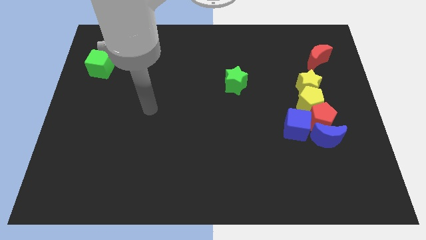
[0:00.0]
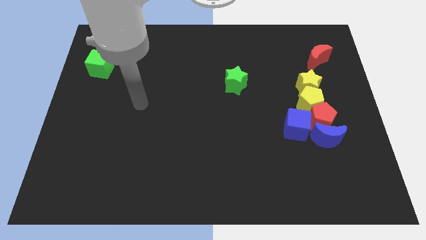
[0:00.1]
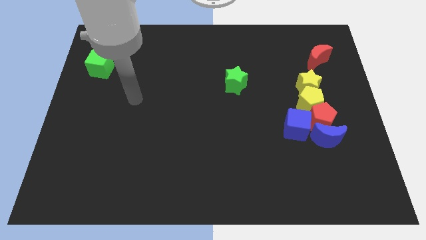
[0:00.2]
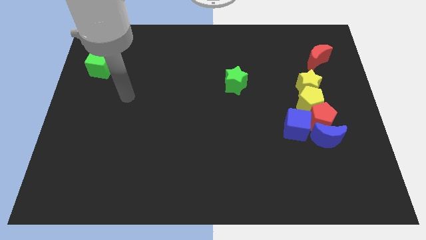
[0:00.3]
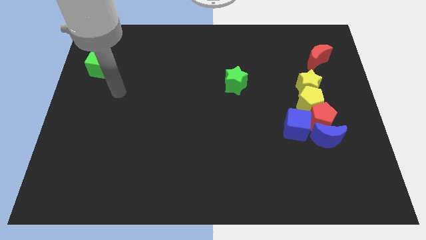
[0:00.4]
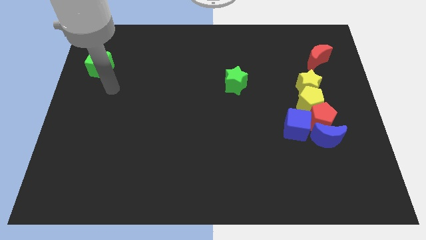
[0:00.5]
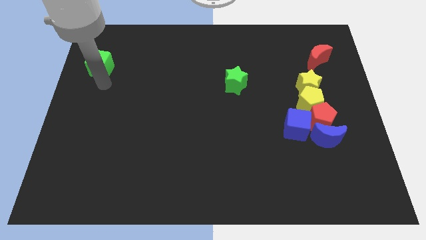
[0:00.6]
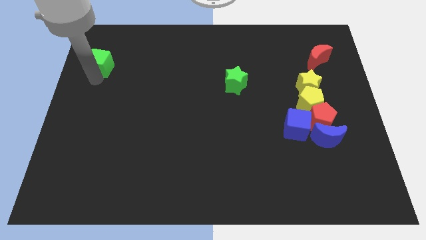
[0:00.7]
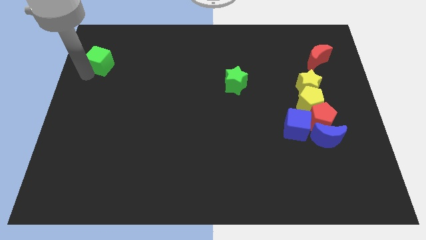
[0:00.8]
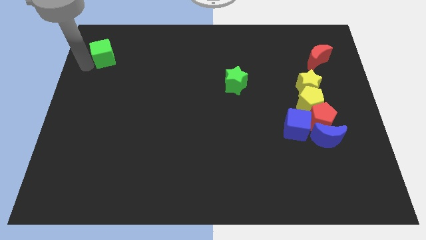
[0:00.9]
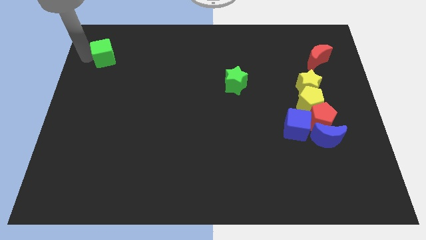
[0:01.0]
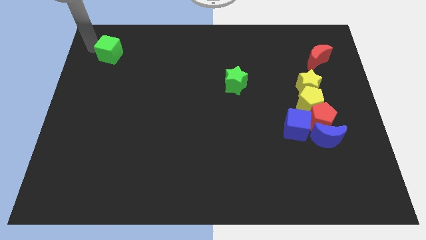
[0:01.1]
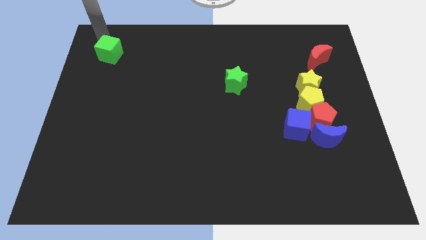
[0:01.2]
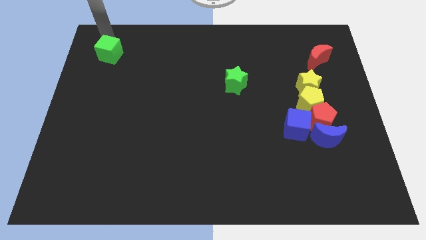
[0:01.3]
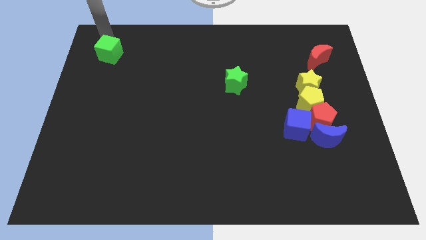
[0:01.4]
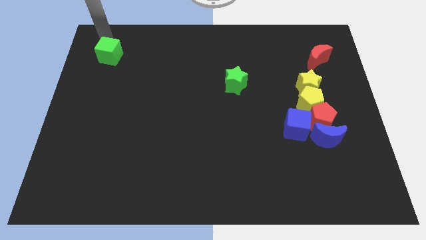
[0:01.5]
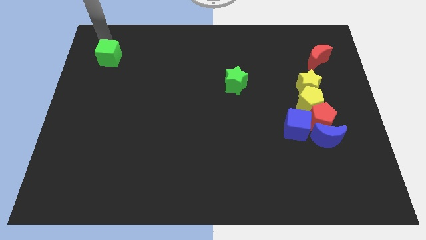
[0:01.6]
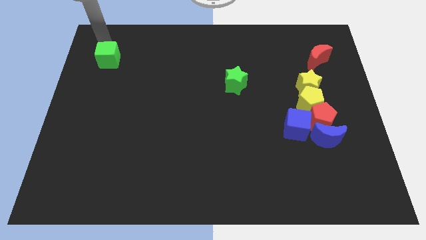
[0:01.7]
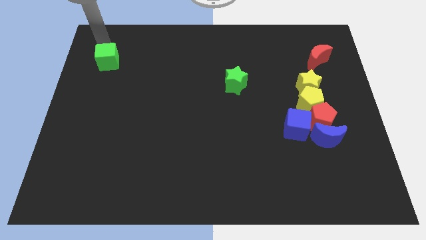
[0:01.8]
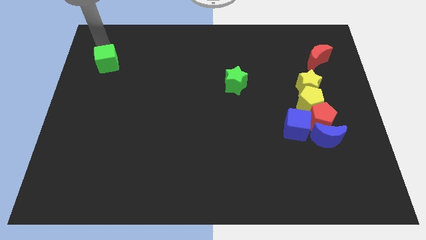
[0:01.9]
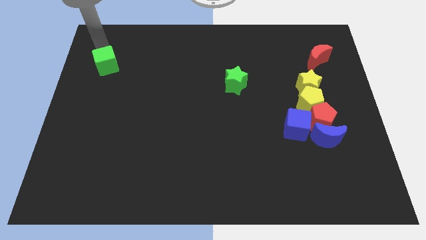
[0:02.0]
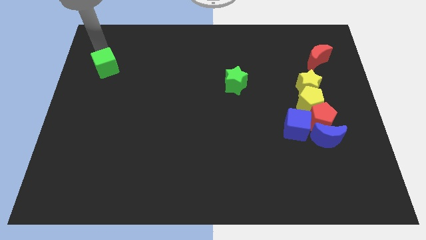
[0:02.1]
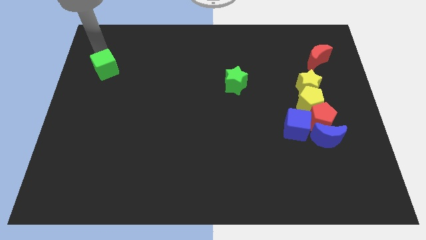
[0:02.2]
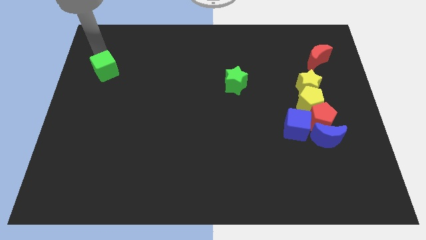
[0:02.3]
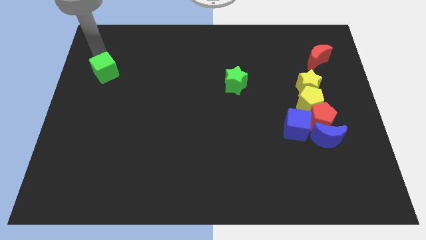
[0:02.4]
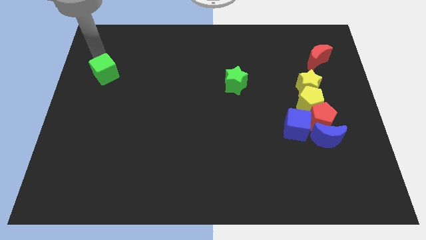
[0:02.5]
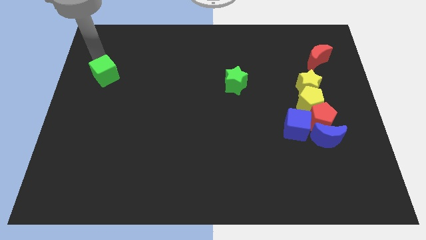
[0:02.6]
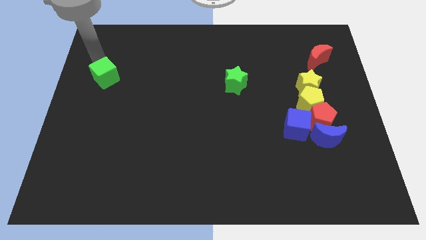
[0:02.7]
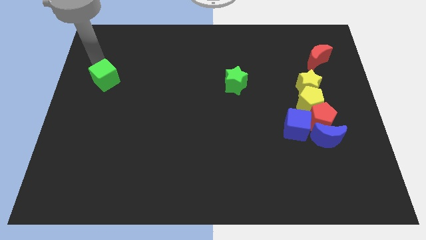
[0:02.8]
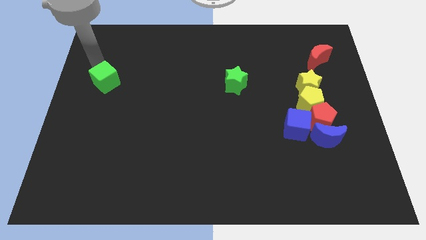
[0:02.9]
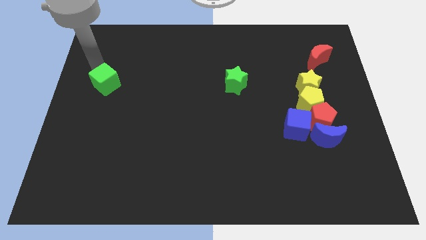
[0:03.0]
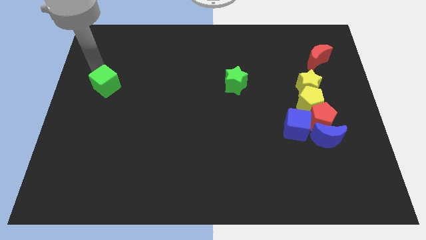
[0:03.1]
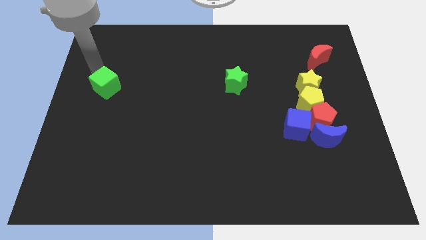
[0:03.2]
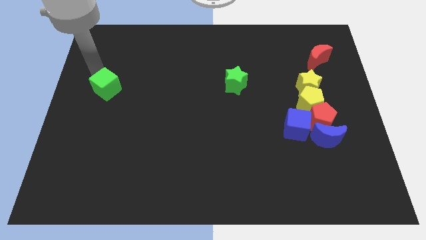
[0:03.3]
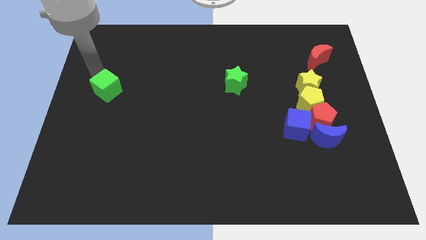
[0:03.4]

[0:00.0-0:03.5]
slide the green cube downwards and to the right diagonally a bit

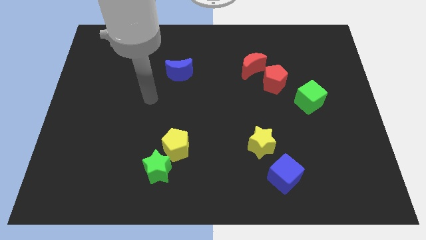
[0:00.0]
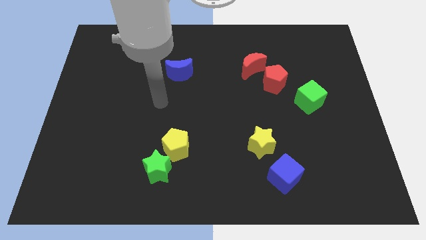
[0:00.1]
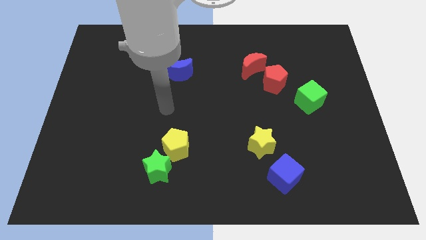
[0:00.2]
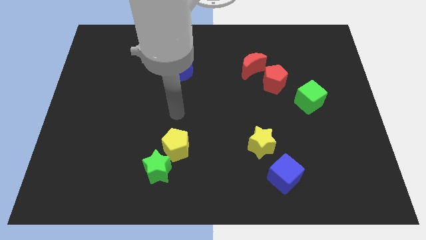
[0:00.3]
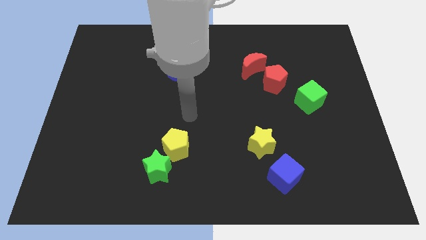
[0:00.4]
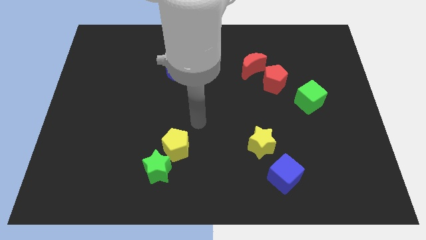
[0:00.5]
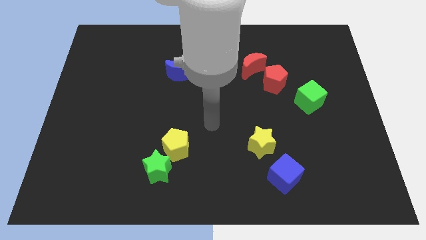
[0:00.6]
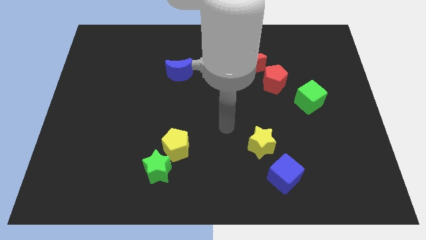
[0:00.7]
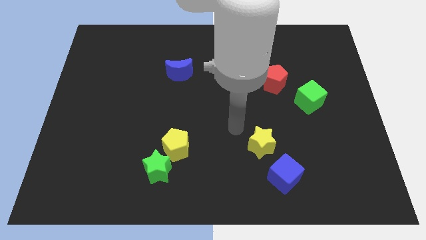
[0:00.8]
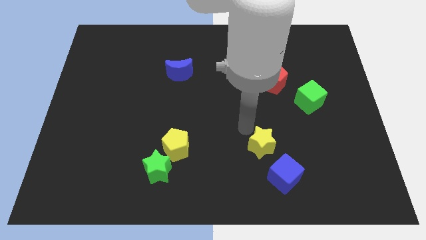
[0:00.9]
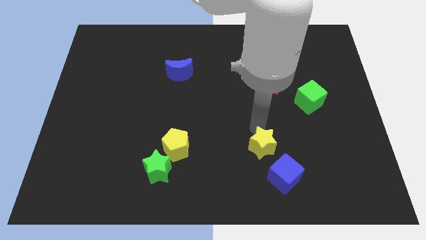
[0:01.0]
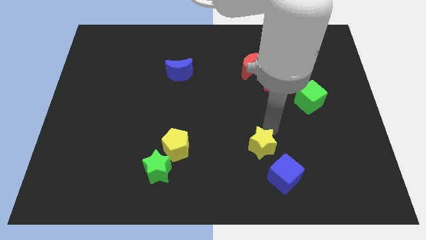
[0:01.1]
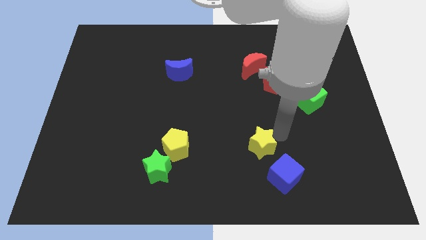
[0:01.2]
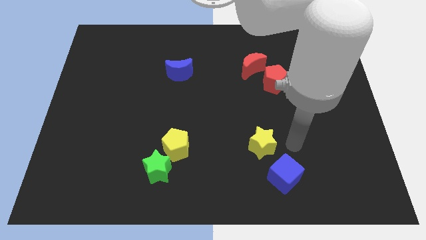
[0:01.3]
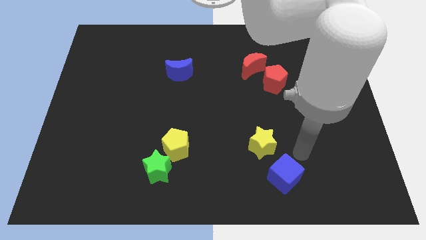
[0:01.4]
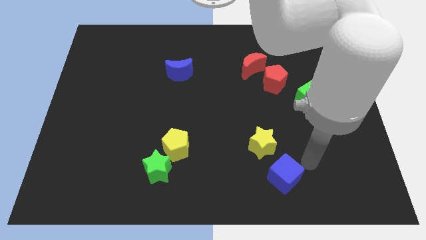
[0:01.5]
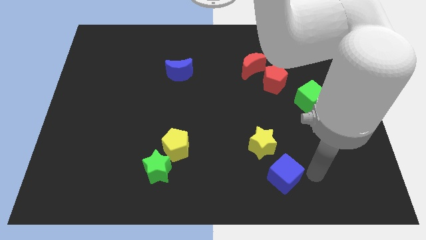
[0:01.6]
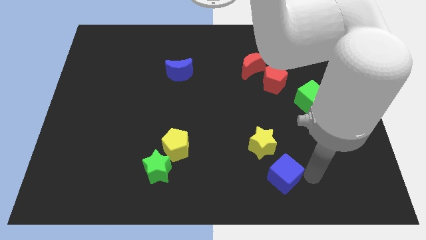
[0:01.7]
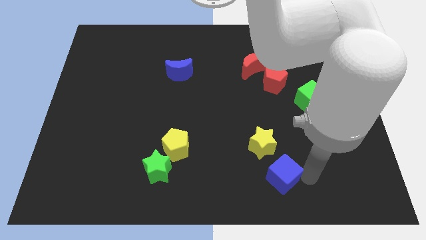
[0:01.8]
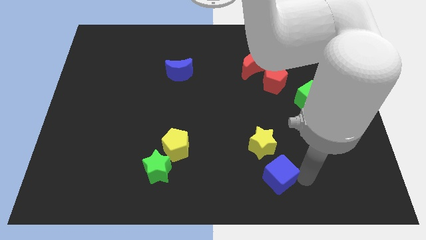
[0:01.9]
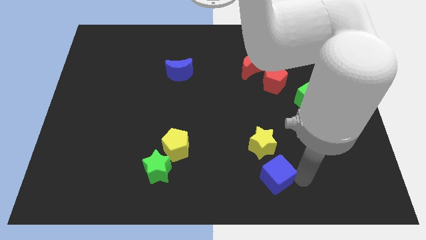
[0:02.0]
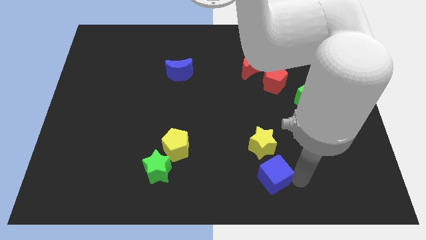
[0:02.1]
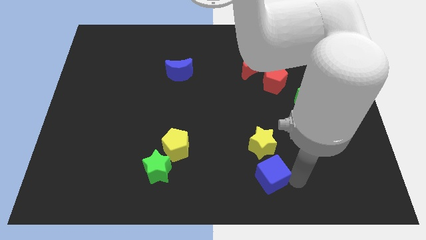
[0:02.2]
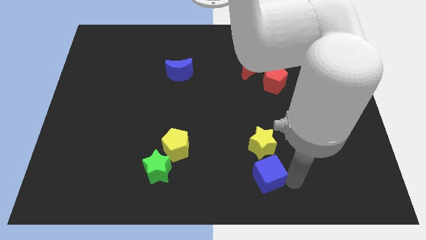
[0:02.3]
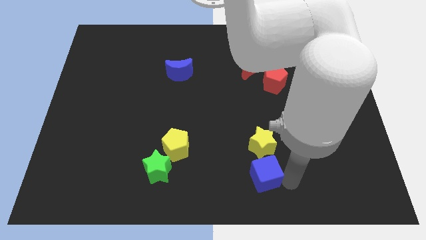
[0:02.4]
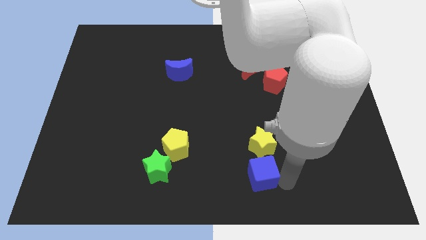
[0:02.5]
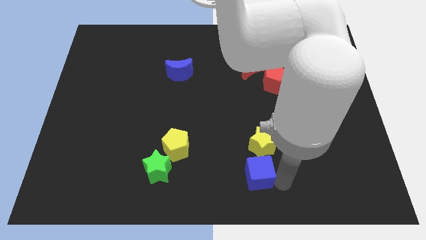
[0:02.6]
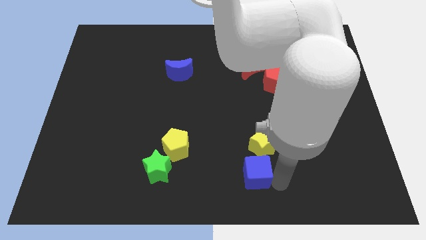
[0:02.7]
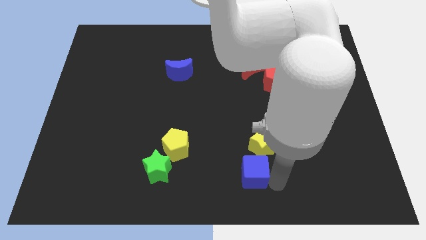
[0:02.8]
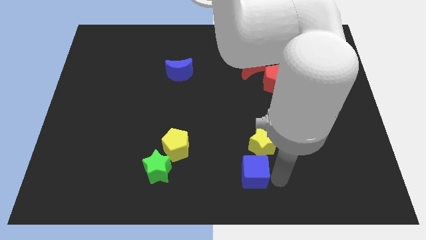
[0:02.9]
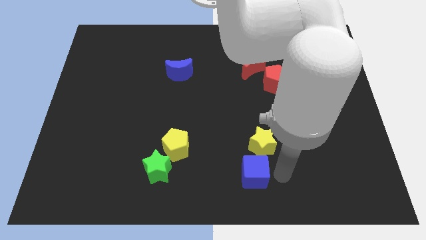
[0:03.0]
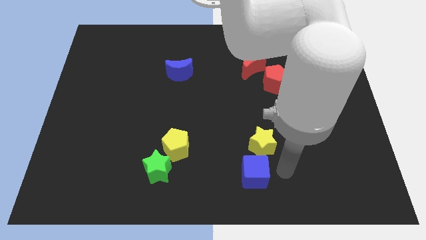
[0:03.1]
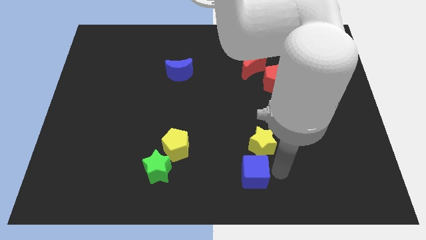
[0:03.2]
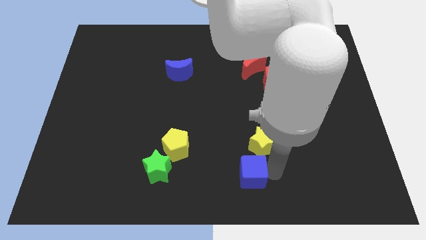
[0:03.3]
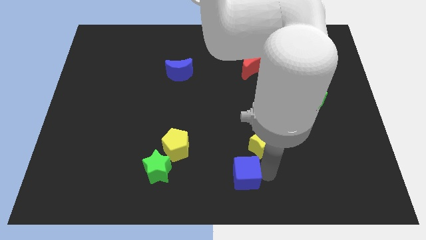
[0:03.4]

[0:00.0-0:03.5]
slide the blue cube to the left a little bit

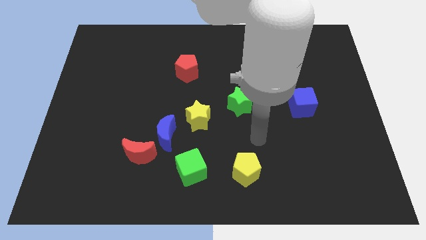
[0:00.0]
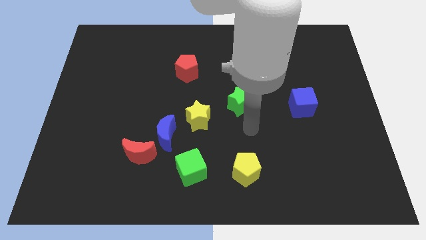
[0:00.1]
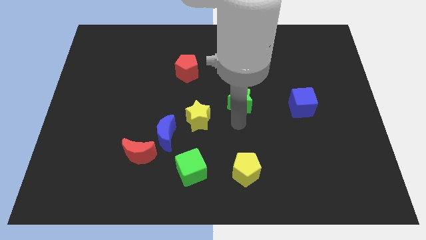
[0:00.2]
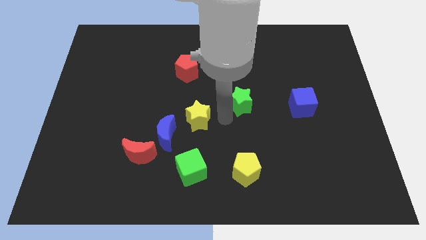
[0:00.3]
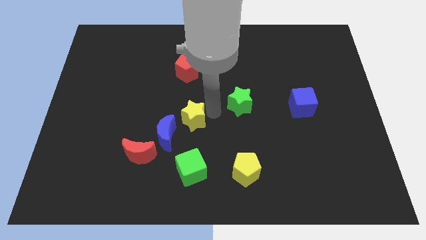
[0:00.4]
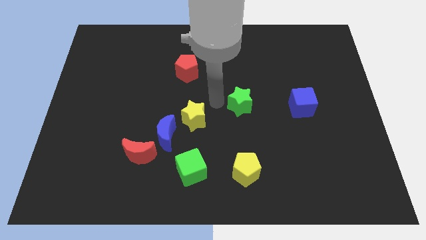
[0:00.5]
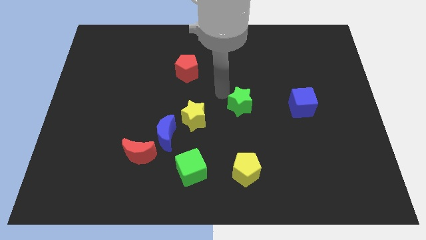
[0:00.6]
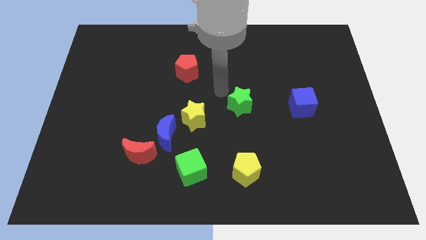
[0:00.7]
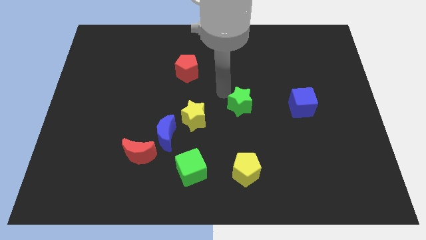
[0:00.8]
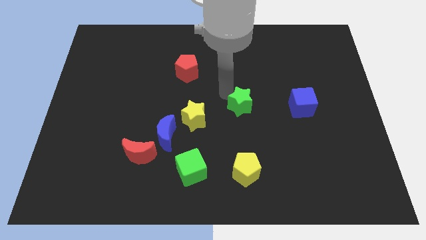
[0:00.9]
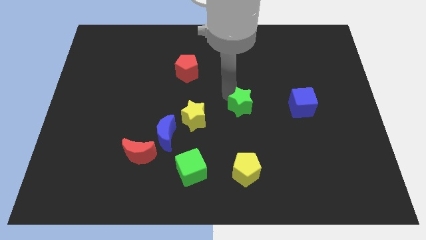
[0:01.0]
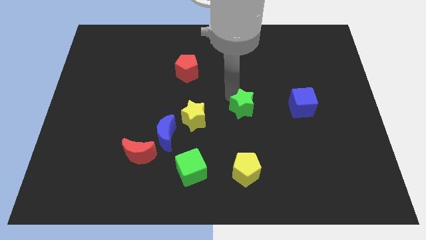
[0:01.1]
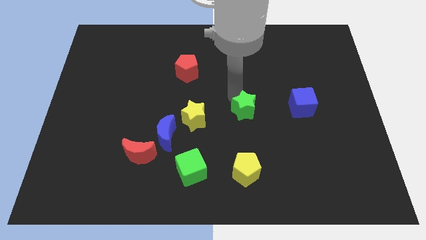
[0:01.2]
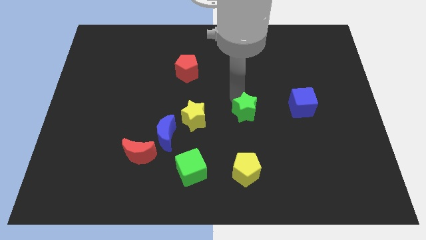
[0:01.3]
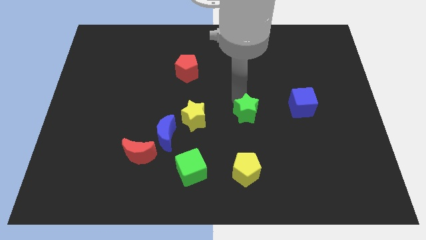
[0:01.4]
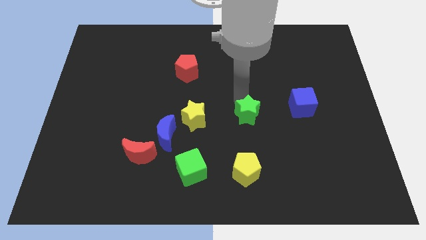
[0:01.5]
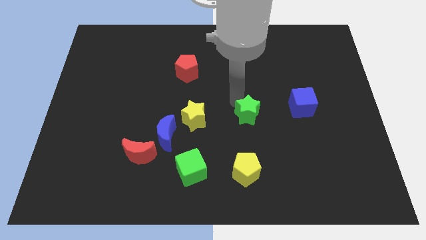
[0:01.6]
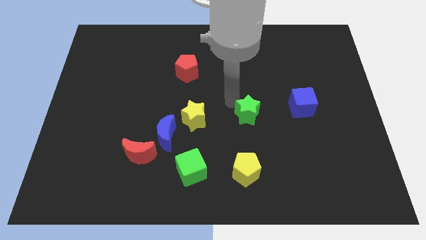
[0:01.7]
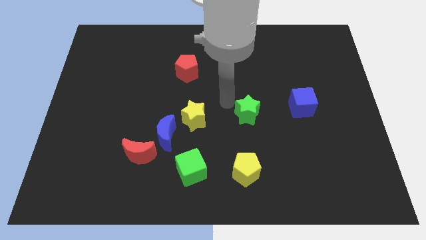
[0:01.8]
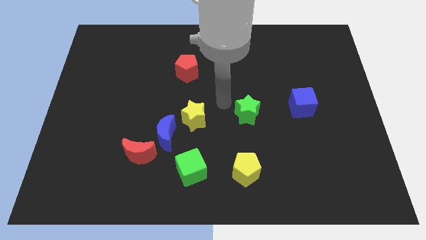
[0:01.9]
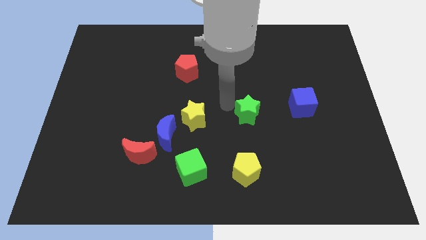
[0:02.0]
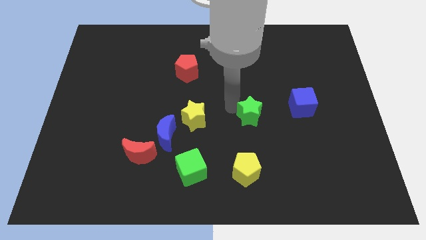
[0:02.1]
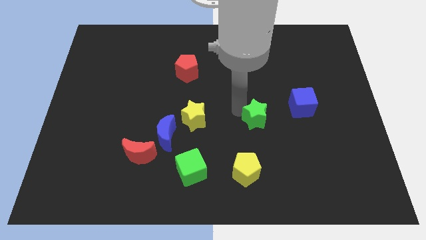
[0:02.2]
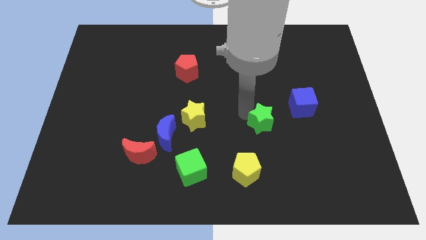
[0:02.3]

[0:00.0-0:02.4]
slightly move the green star diagonally downwards and to the right
